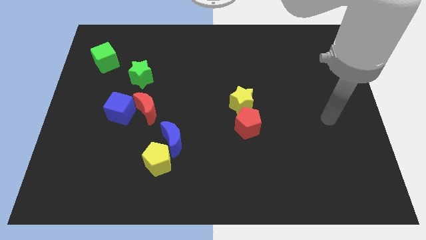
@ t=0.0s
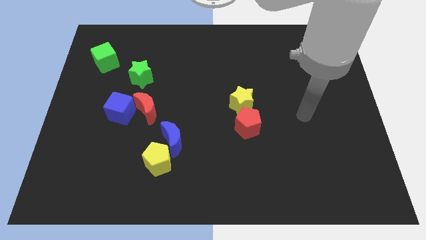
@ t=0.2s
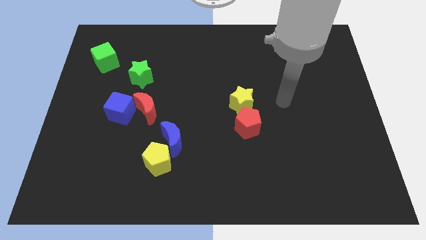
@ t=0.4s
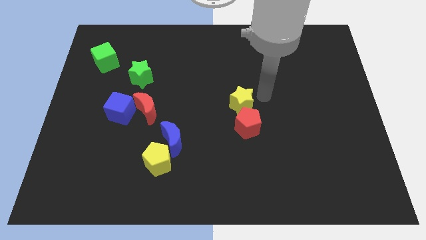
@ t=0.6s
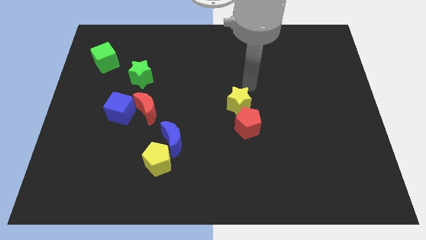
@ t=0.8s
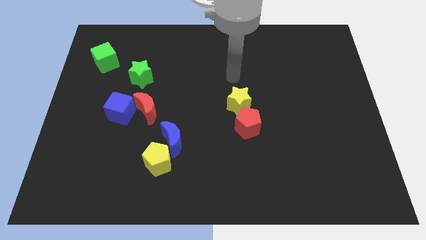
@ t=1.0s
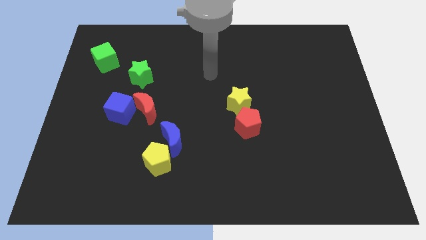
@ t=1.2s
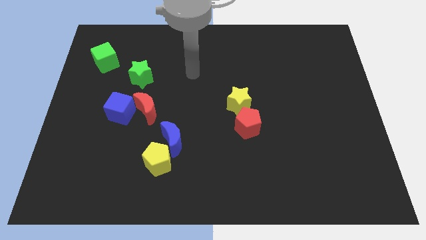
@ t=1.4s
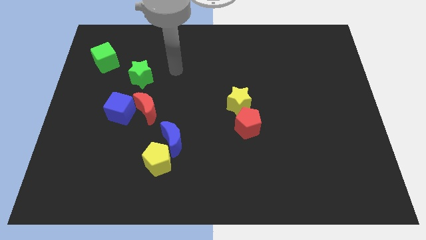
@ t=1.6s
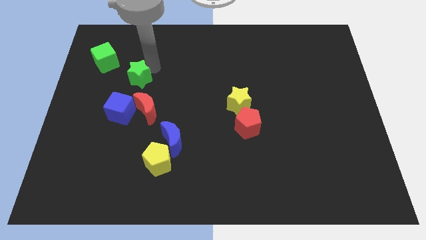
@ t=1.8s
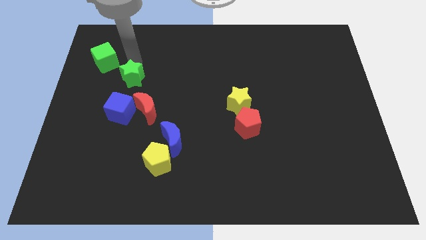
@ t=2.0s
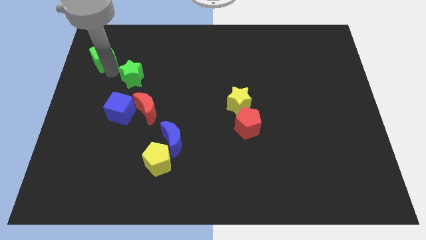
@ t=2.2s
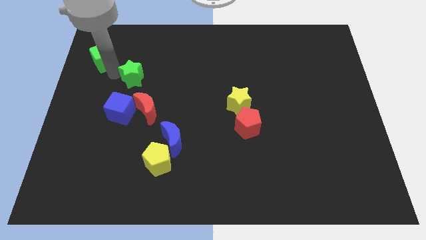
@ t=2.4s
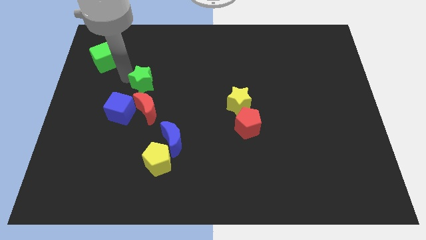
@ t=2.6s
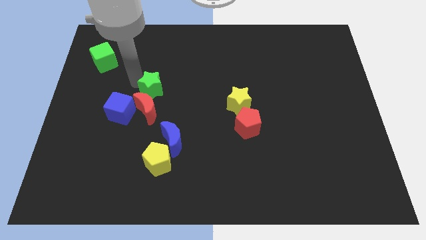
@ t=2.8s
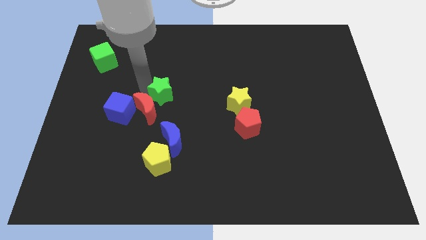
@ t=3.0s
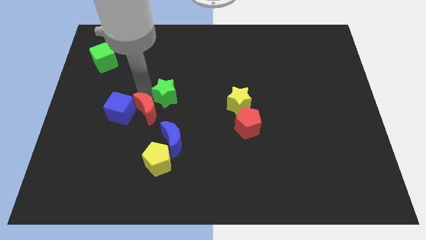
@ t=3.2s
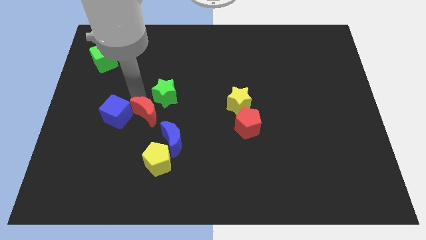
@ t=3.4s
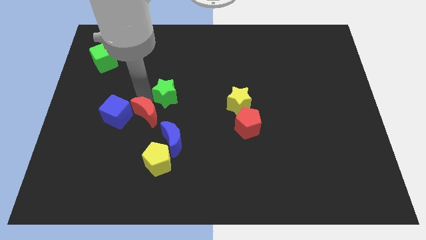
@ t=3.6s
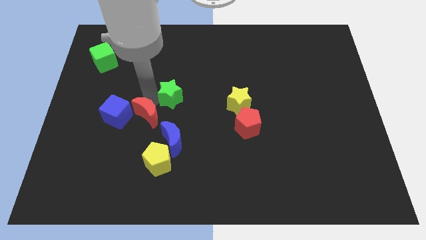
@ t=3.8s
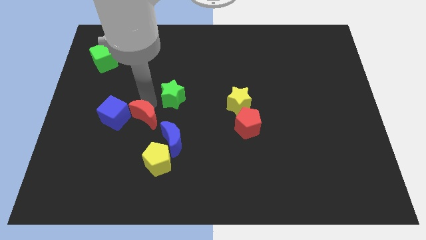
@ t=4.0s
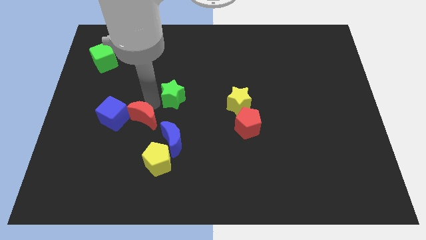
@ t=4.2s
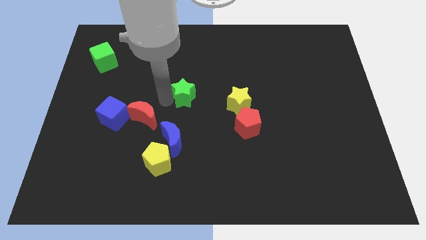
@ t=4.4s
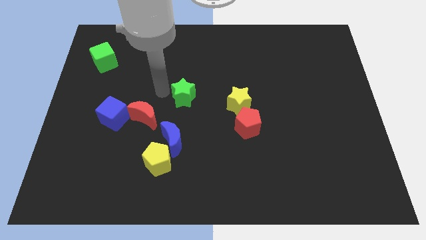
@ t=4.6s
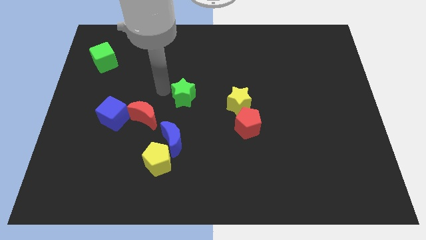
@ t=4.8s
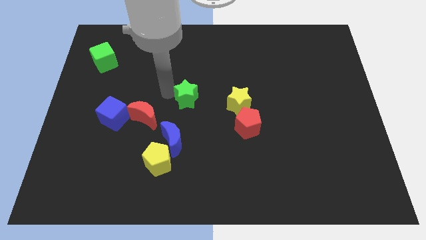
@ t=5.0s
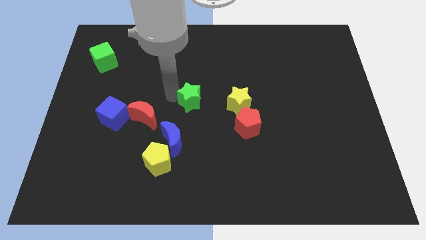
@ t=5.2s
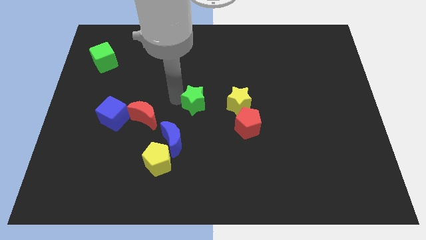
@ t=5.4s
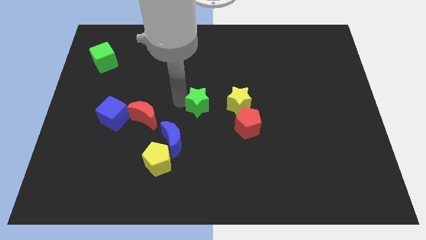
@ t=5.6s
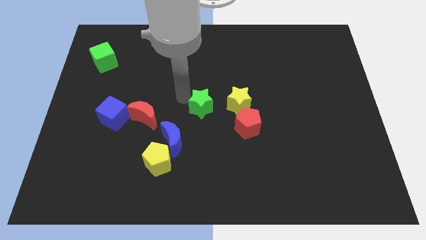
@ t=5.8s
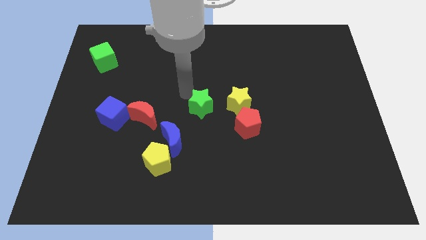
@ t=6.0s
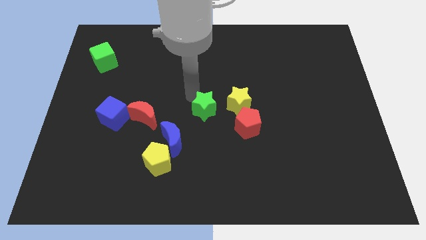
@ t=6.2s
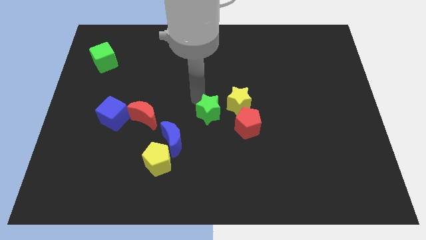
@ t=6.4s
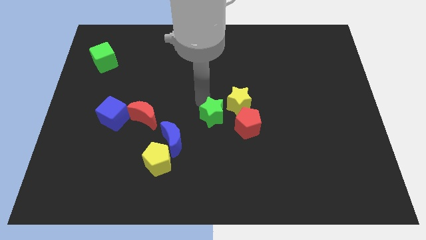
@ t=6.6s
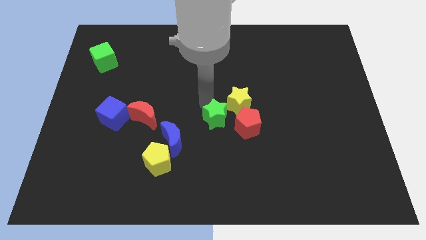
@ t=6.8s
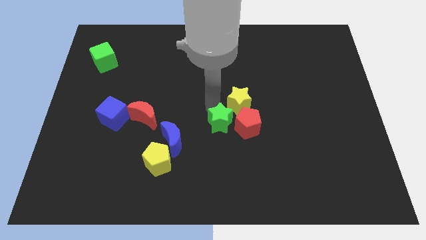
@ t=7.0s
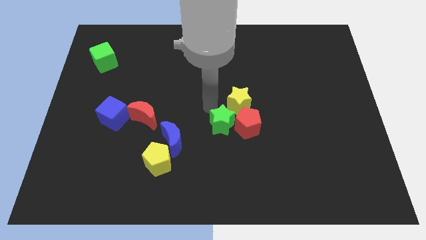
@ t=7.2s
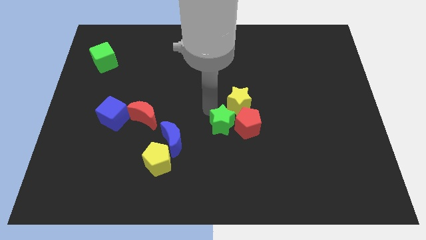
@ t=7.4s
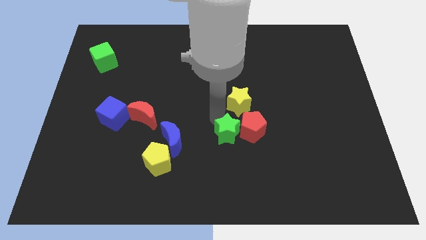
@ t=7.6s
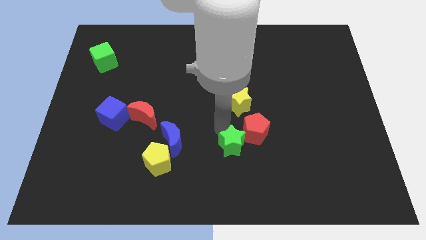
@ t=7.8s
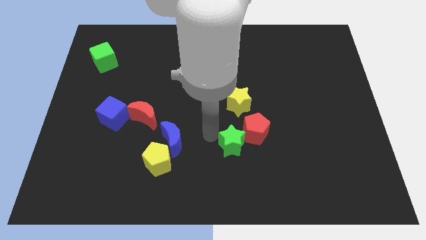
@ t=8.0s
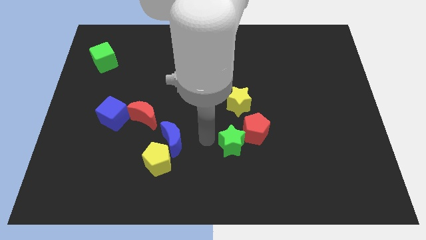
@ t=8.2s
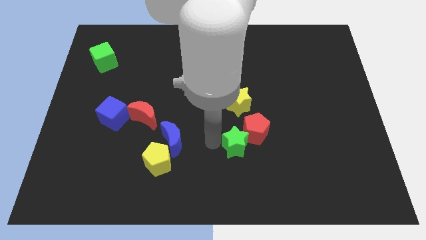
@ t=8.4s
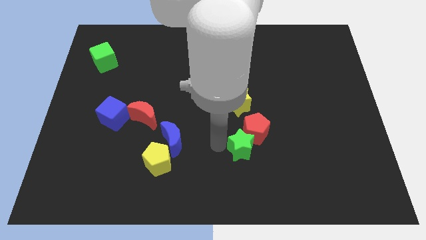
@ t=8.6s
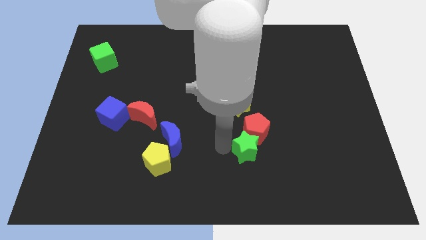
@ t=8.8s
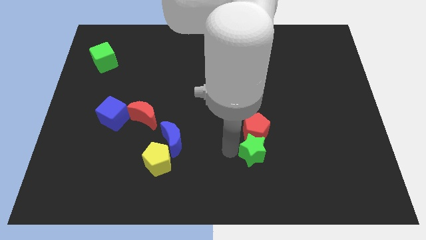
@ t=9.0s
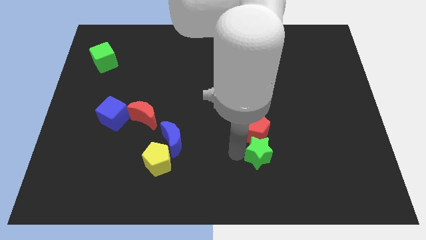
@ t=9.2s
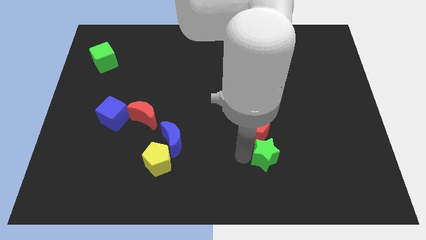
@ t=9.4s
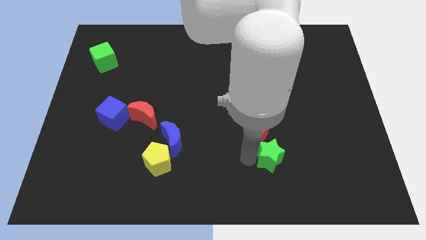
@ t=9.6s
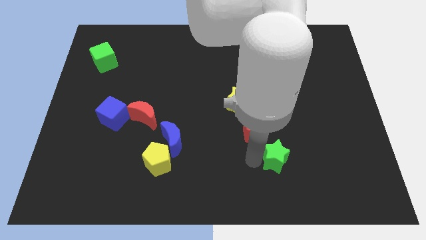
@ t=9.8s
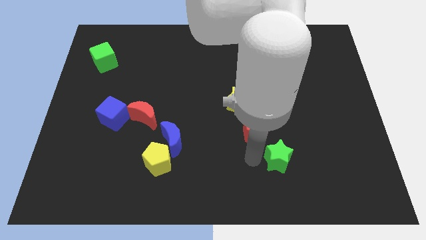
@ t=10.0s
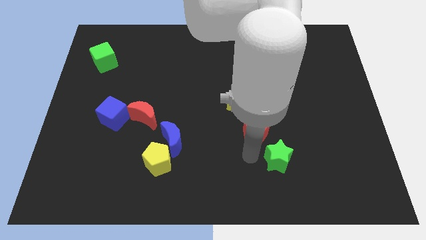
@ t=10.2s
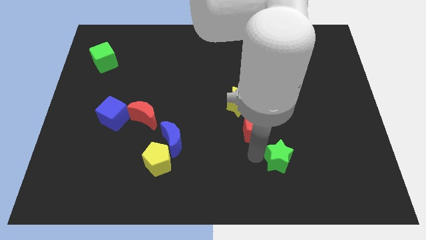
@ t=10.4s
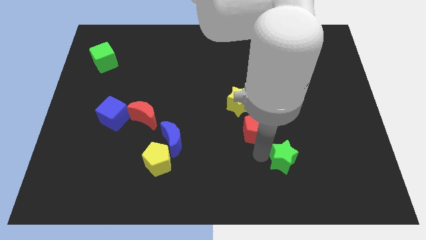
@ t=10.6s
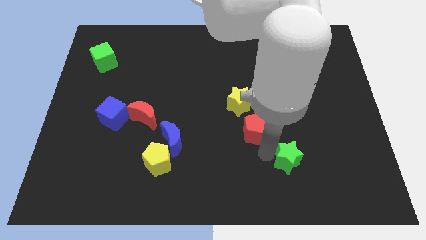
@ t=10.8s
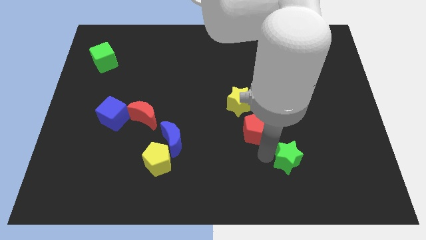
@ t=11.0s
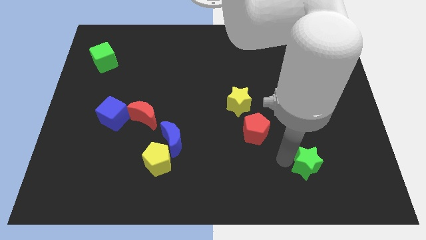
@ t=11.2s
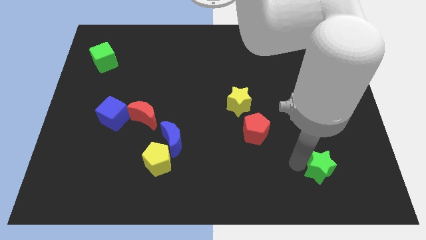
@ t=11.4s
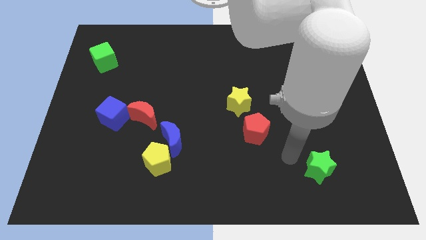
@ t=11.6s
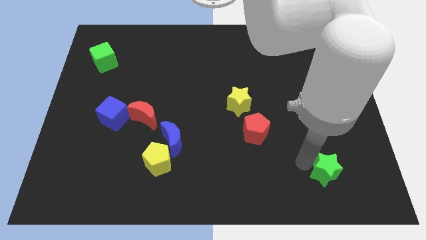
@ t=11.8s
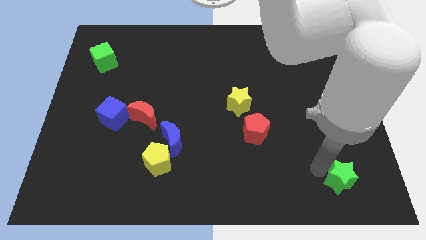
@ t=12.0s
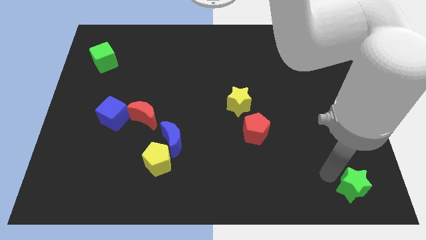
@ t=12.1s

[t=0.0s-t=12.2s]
slide the green star to the bottom right of the board

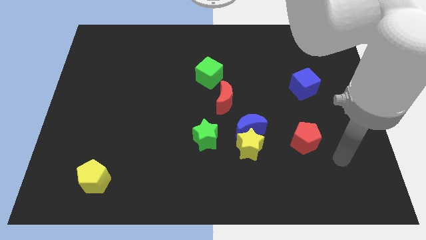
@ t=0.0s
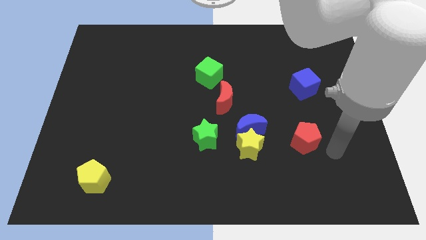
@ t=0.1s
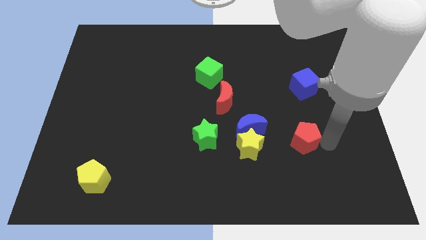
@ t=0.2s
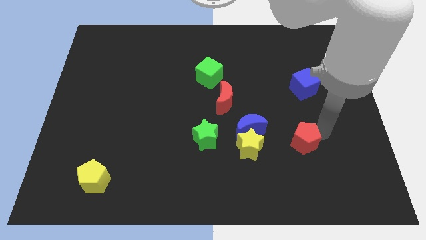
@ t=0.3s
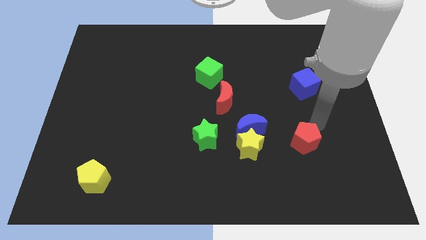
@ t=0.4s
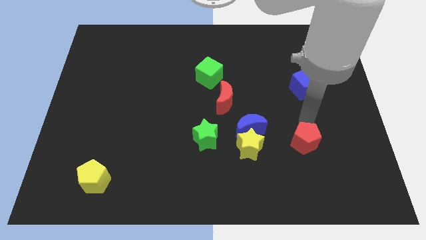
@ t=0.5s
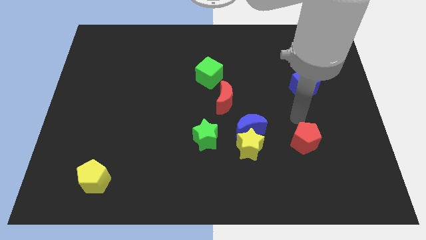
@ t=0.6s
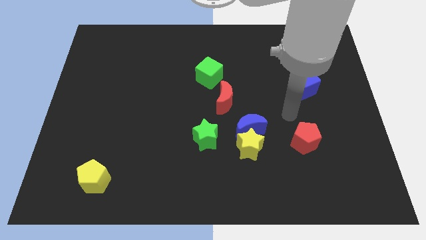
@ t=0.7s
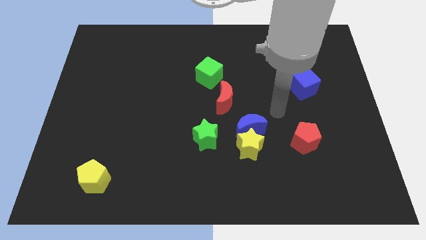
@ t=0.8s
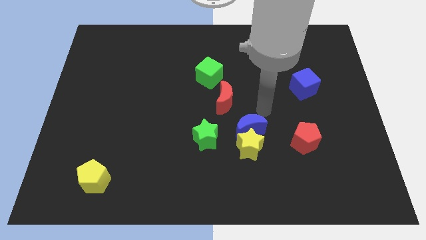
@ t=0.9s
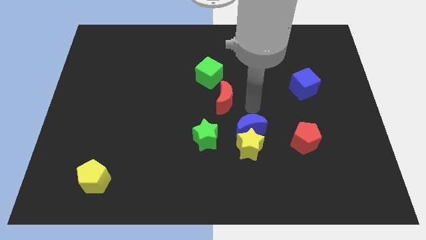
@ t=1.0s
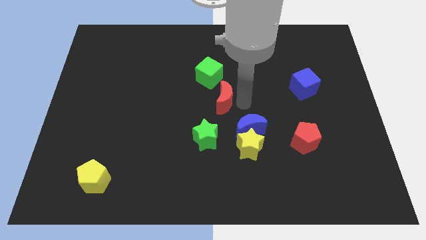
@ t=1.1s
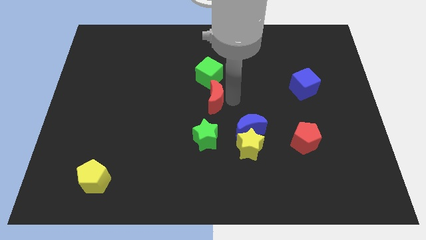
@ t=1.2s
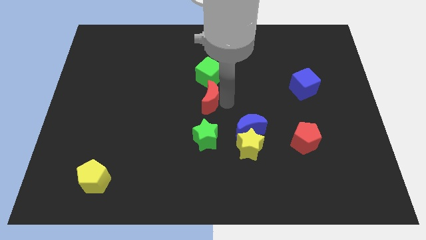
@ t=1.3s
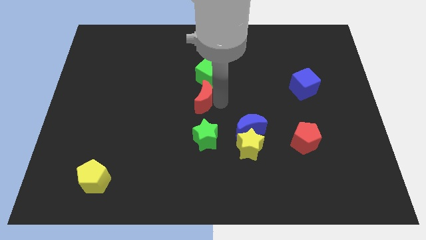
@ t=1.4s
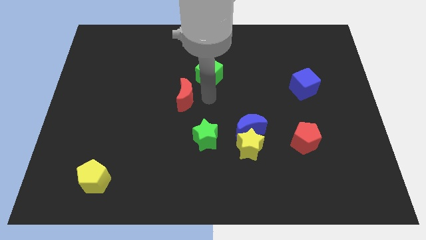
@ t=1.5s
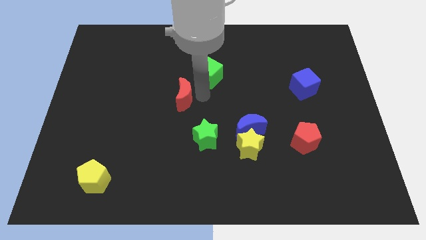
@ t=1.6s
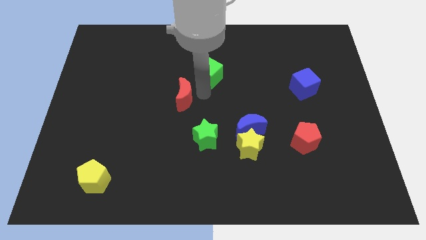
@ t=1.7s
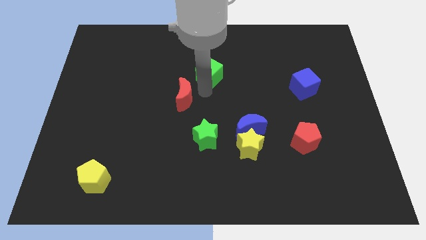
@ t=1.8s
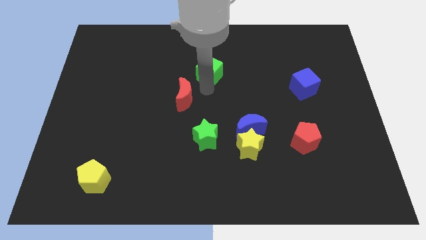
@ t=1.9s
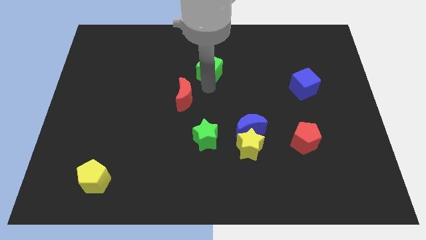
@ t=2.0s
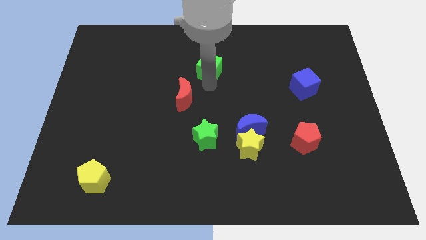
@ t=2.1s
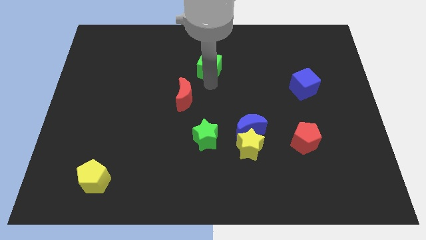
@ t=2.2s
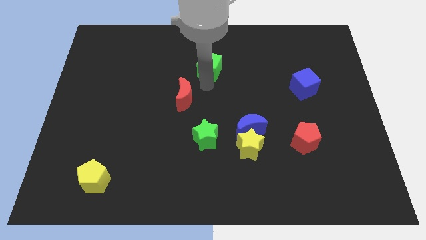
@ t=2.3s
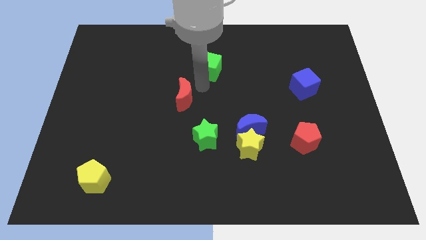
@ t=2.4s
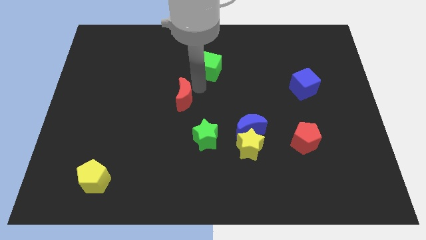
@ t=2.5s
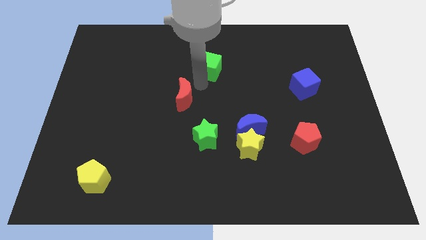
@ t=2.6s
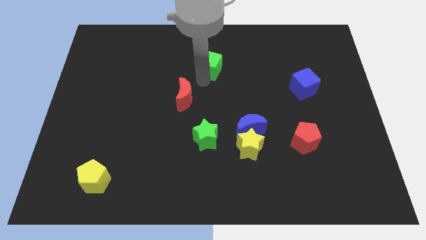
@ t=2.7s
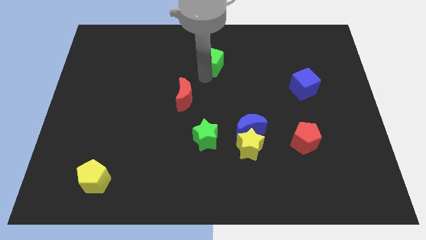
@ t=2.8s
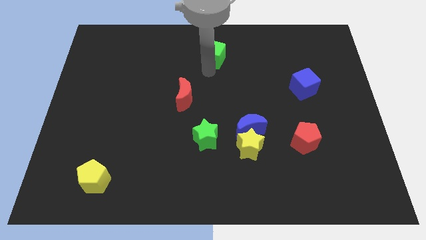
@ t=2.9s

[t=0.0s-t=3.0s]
move the green cube to the top
